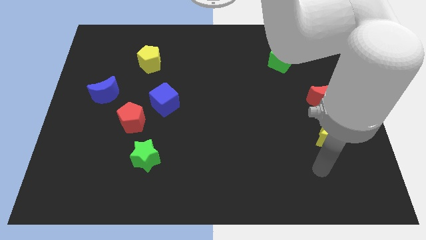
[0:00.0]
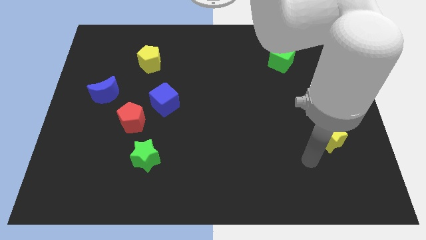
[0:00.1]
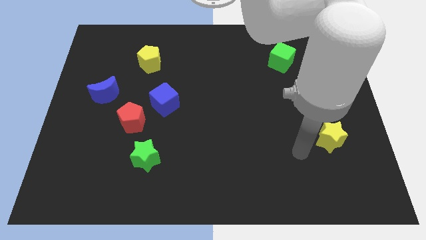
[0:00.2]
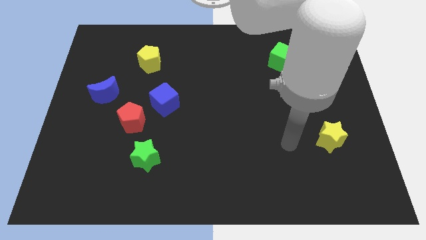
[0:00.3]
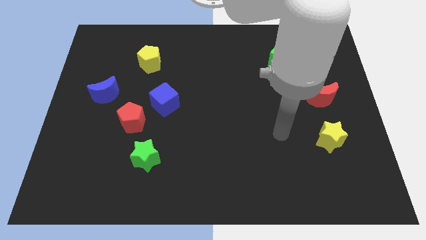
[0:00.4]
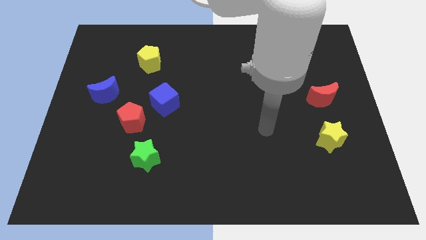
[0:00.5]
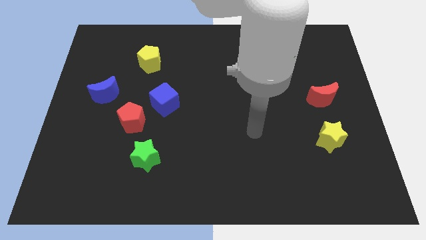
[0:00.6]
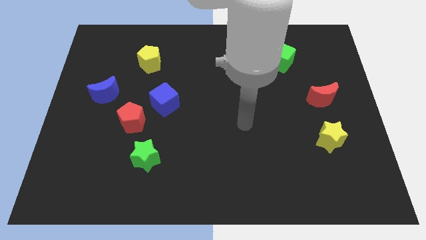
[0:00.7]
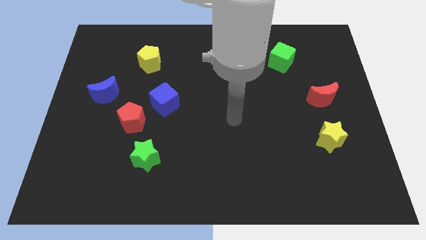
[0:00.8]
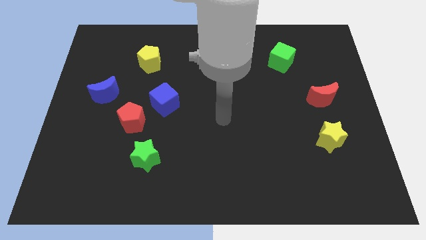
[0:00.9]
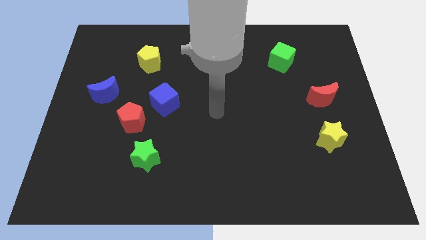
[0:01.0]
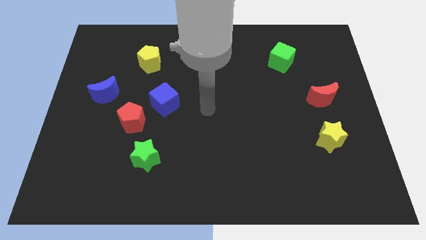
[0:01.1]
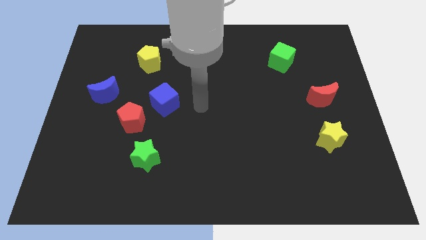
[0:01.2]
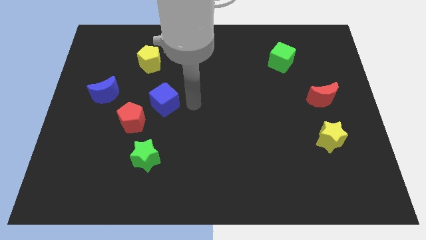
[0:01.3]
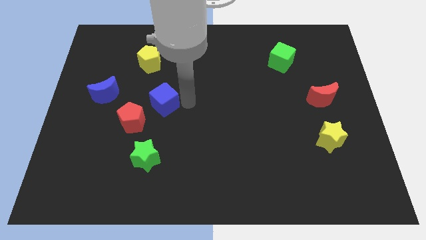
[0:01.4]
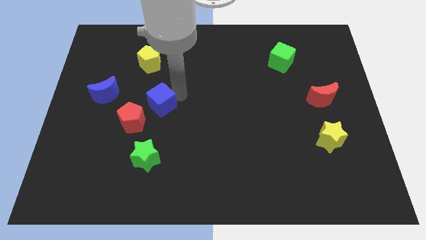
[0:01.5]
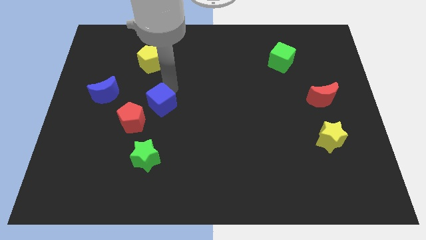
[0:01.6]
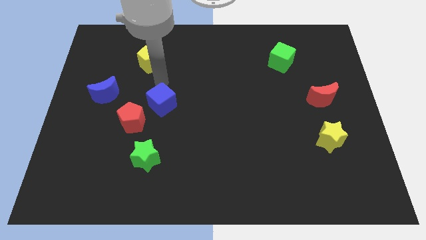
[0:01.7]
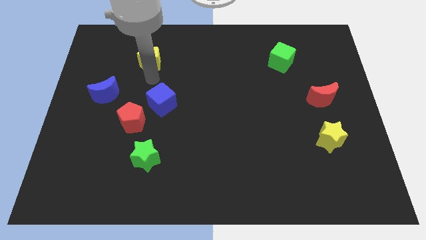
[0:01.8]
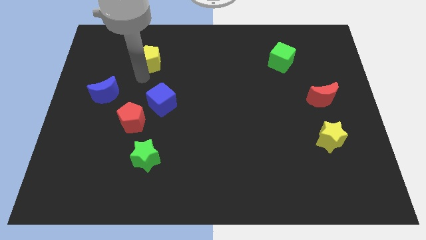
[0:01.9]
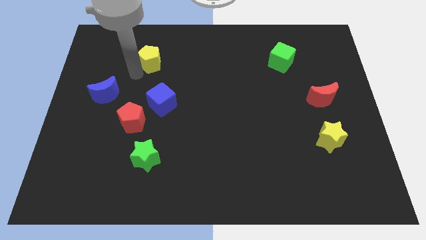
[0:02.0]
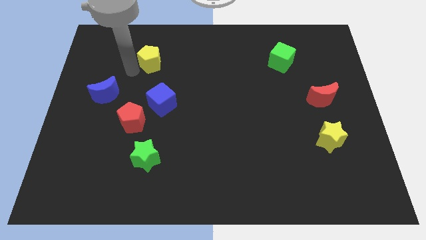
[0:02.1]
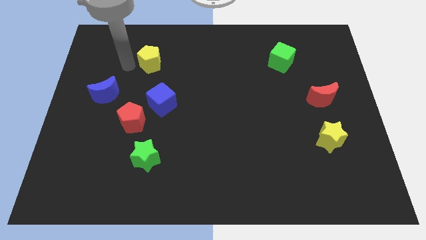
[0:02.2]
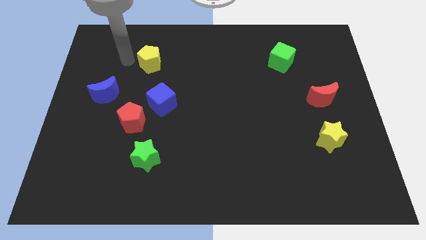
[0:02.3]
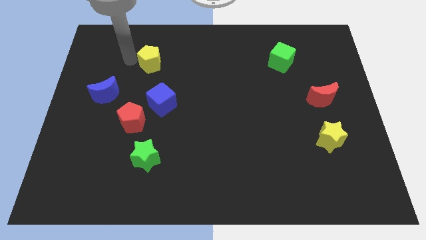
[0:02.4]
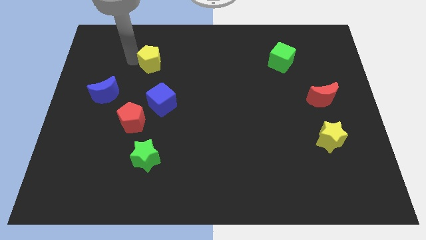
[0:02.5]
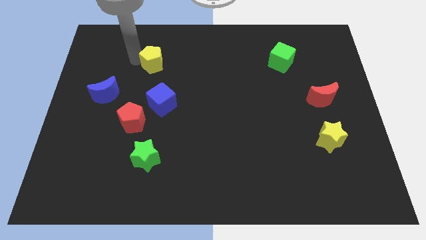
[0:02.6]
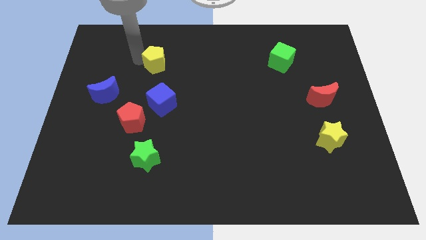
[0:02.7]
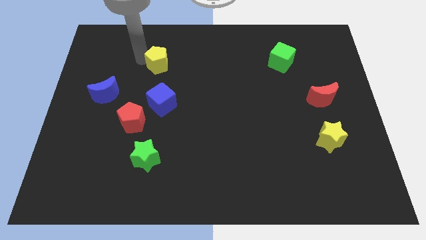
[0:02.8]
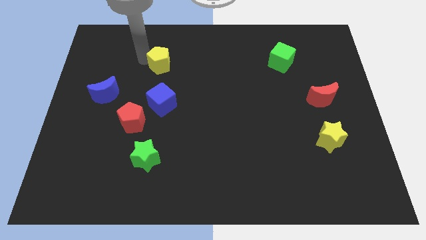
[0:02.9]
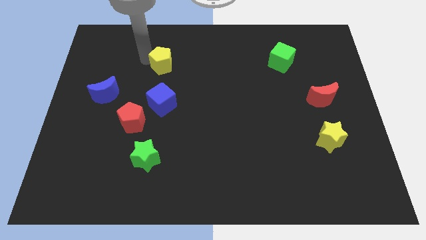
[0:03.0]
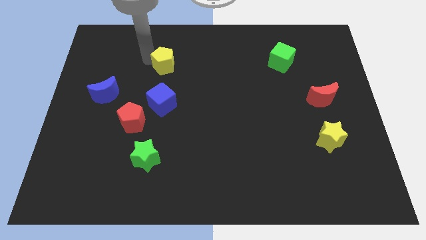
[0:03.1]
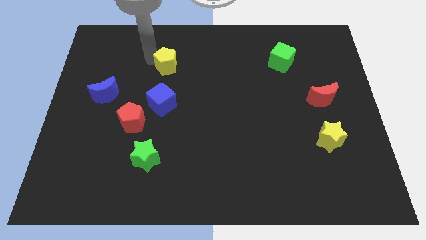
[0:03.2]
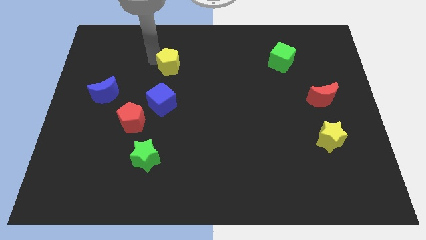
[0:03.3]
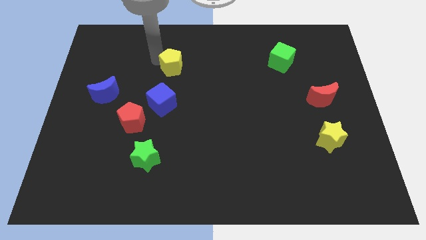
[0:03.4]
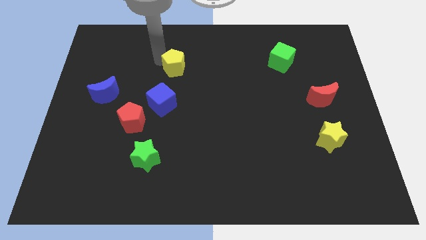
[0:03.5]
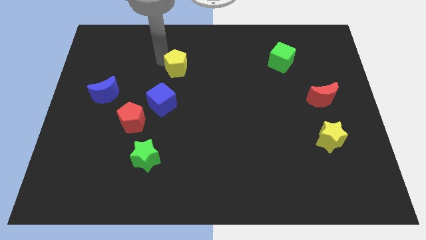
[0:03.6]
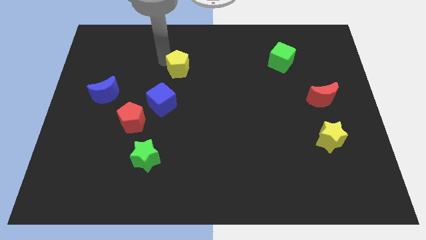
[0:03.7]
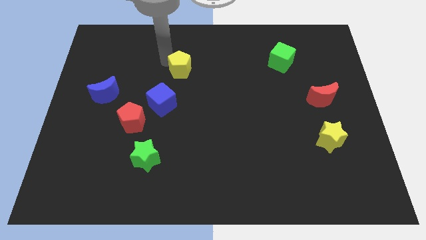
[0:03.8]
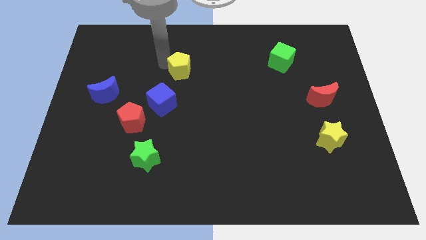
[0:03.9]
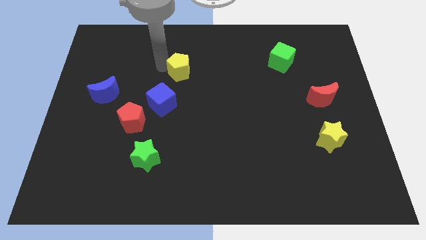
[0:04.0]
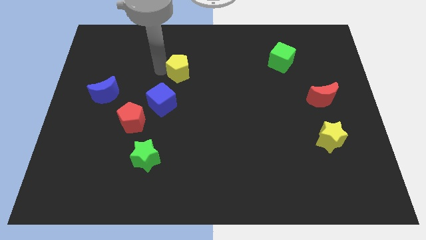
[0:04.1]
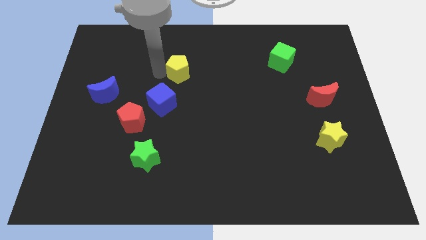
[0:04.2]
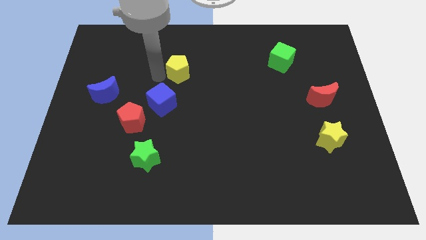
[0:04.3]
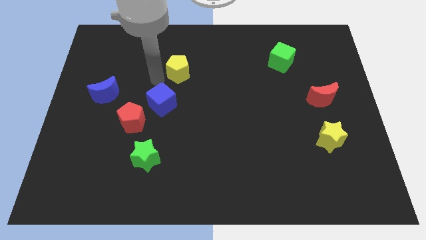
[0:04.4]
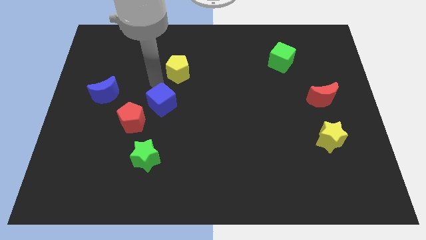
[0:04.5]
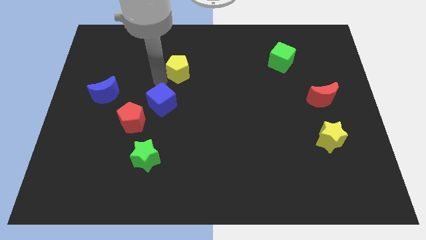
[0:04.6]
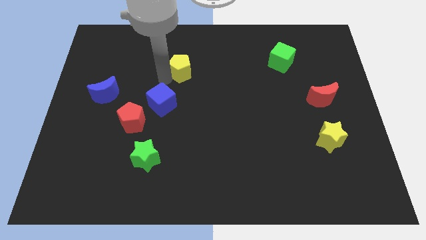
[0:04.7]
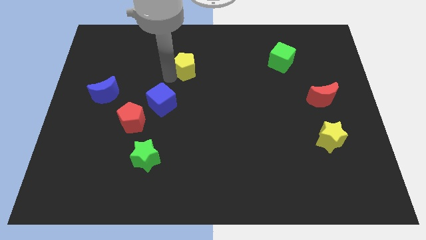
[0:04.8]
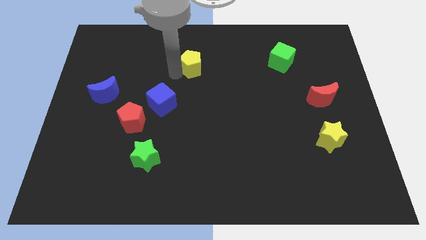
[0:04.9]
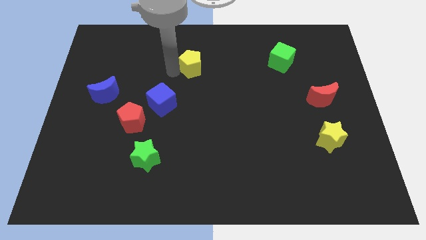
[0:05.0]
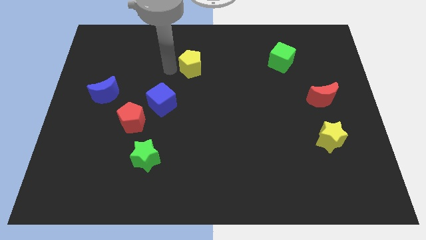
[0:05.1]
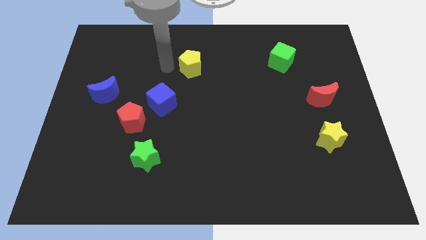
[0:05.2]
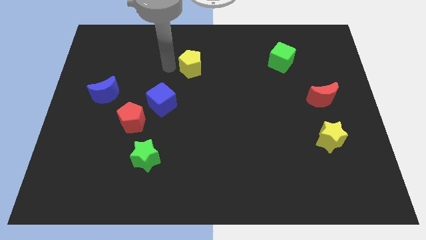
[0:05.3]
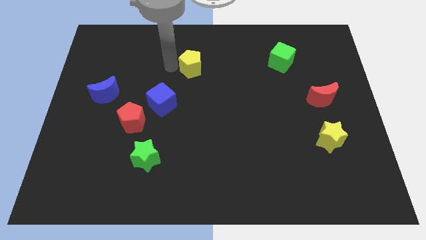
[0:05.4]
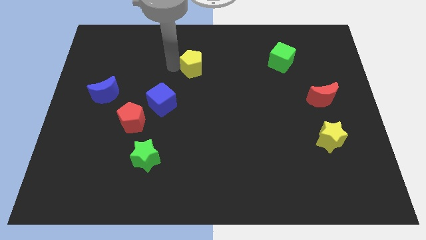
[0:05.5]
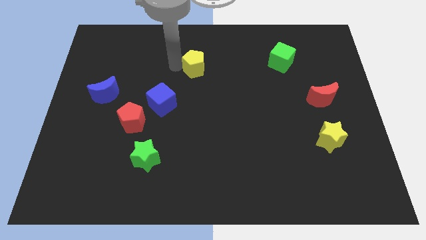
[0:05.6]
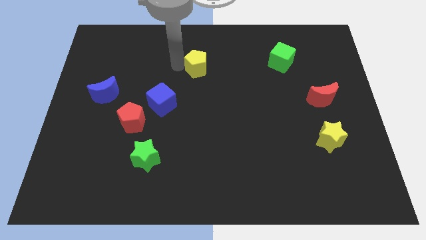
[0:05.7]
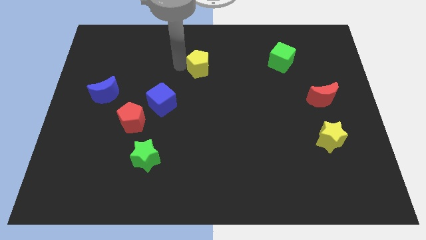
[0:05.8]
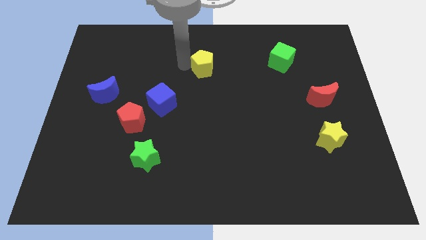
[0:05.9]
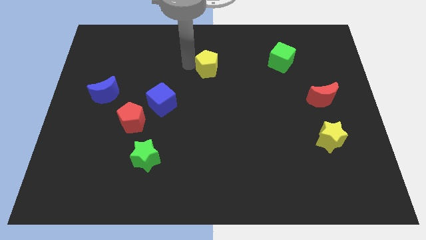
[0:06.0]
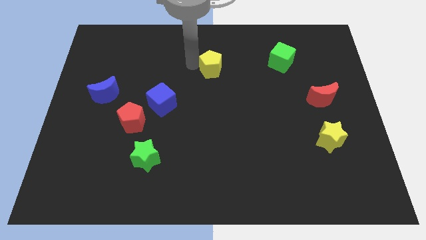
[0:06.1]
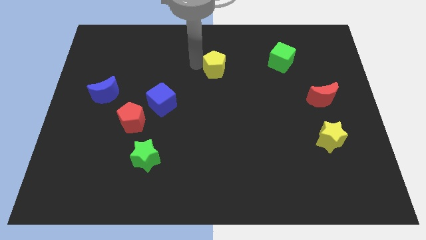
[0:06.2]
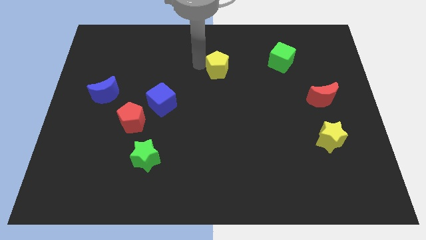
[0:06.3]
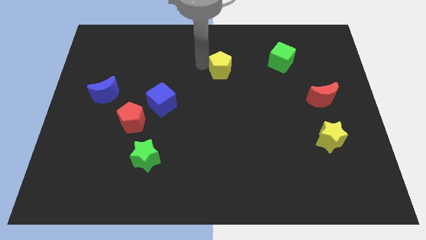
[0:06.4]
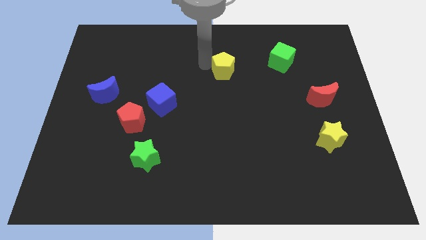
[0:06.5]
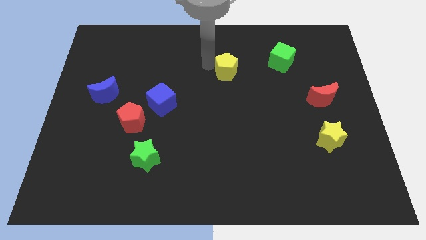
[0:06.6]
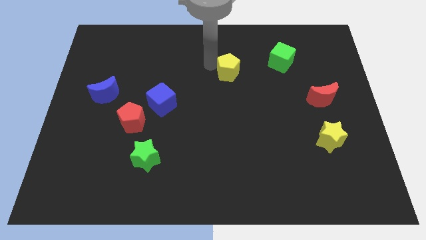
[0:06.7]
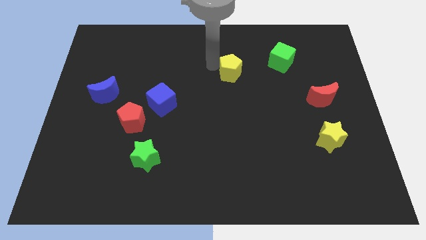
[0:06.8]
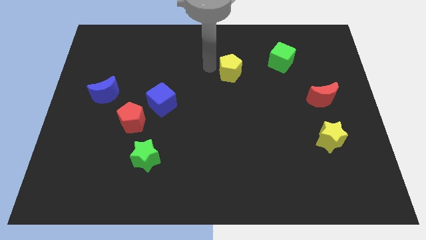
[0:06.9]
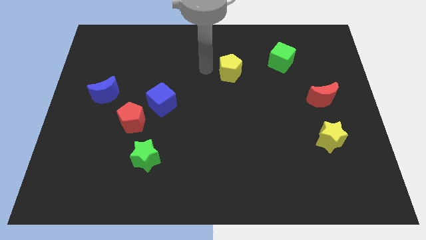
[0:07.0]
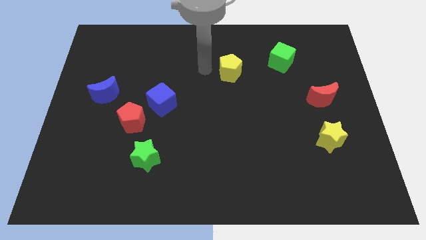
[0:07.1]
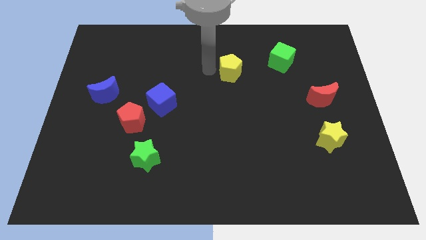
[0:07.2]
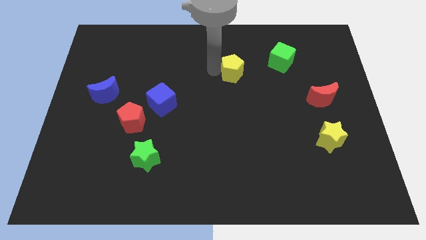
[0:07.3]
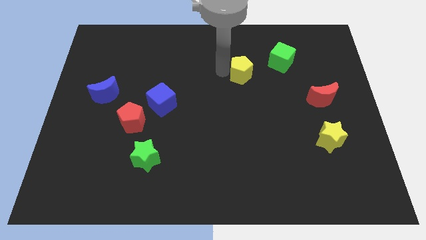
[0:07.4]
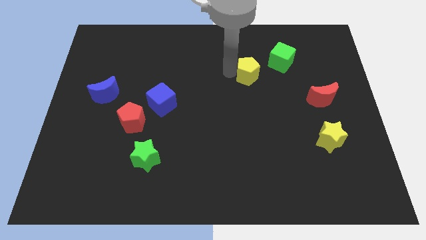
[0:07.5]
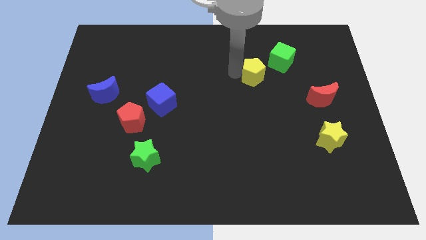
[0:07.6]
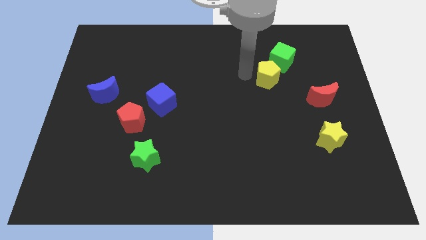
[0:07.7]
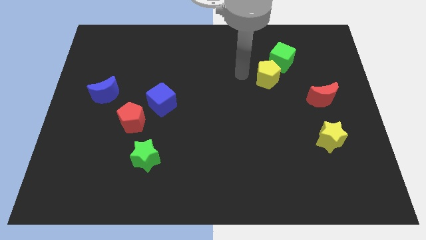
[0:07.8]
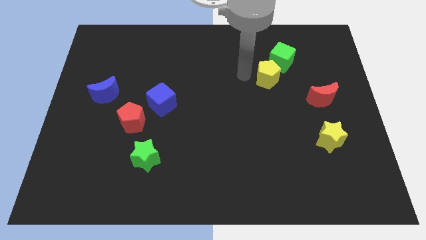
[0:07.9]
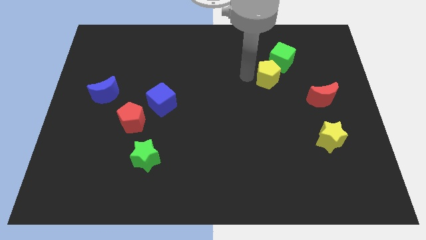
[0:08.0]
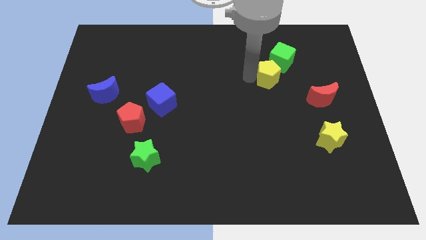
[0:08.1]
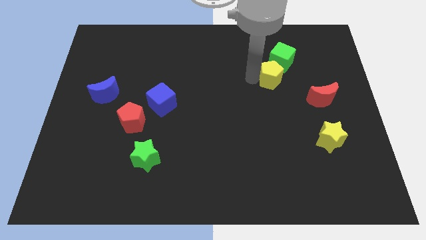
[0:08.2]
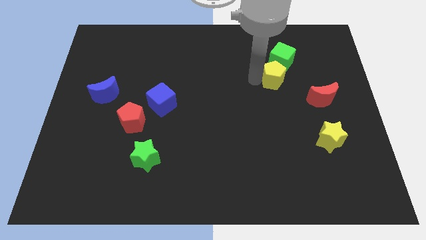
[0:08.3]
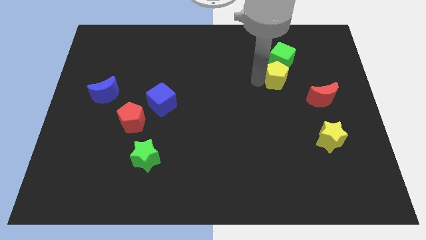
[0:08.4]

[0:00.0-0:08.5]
move the yellow pentagon to the top left of the red moon
